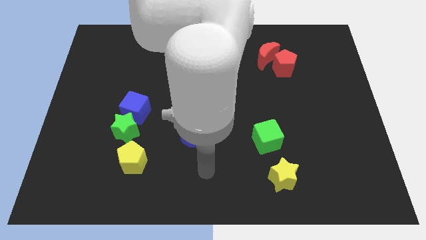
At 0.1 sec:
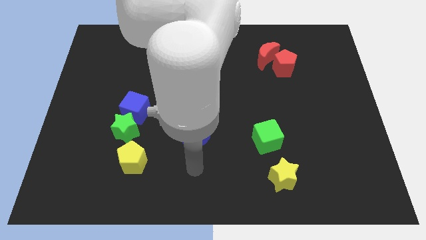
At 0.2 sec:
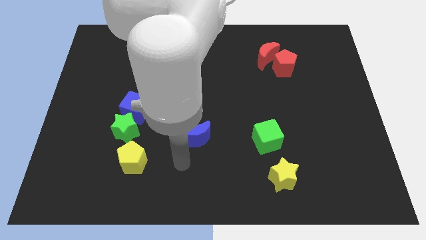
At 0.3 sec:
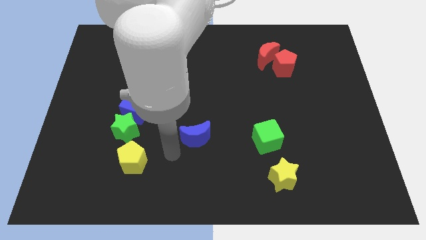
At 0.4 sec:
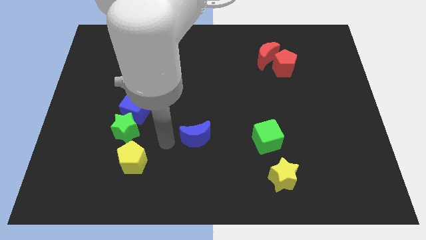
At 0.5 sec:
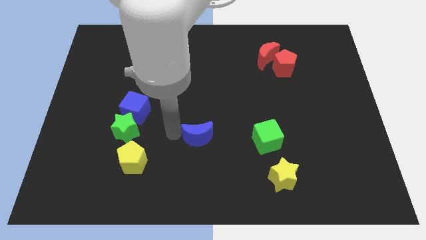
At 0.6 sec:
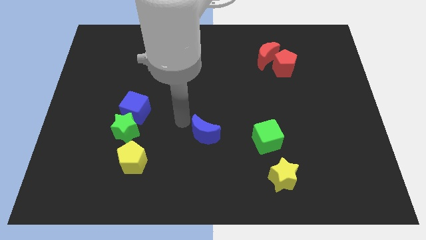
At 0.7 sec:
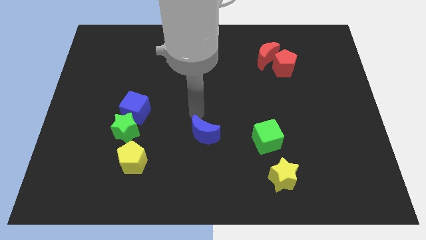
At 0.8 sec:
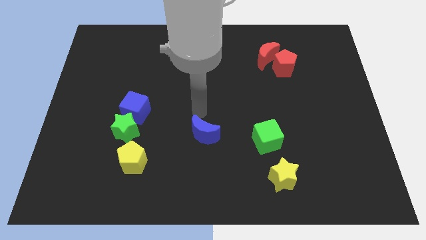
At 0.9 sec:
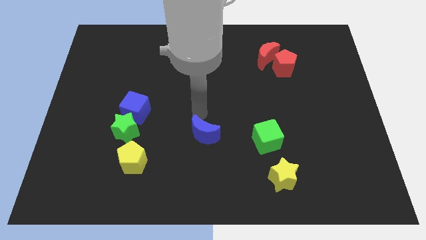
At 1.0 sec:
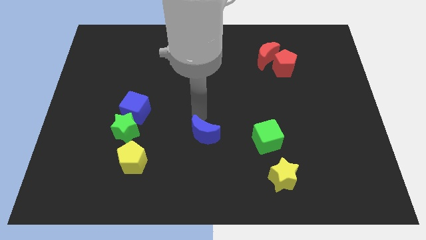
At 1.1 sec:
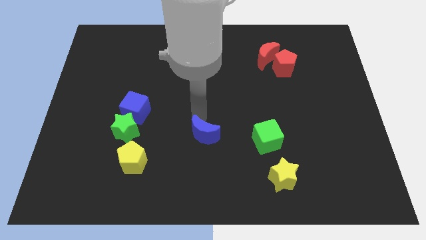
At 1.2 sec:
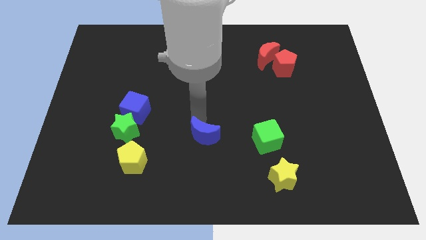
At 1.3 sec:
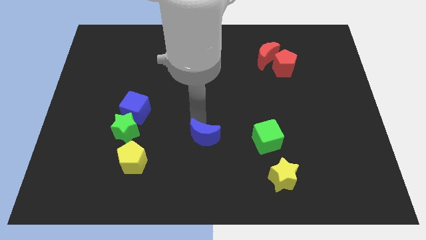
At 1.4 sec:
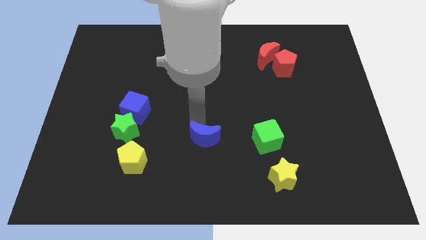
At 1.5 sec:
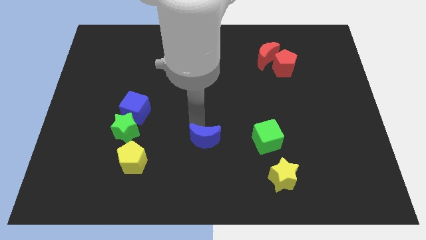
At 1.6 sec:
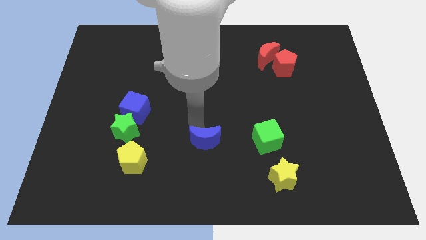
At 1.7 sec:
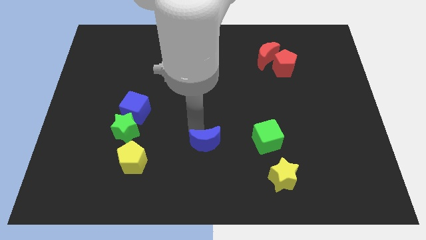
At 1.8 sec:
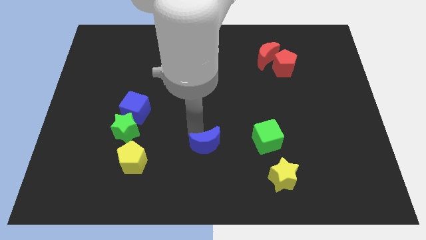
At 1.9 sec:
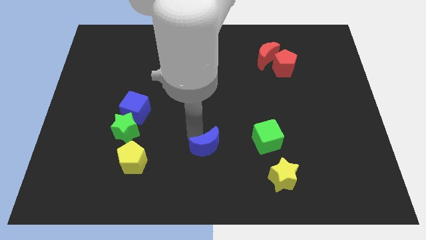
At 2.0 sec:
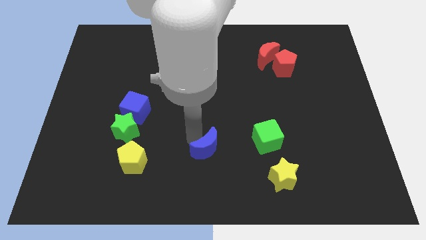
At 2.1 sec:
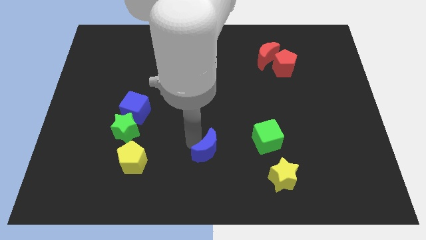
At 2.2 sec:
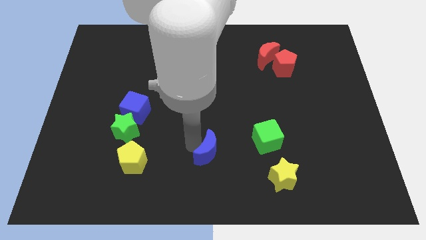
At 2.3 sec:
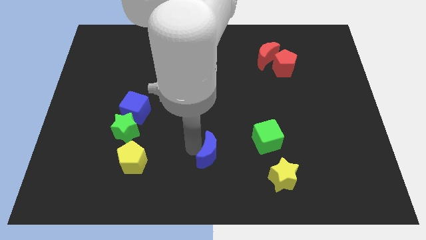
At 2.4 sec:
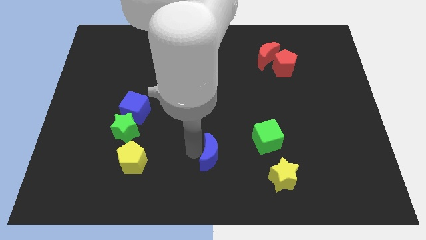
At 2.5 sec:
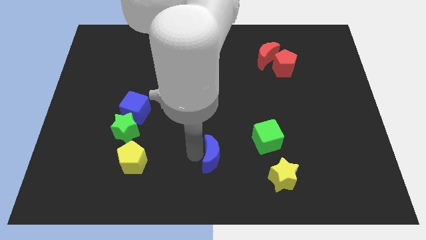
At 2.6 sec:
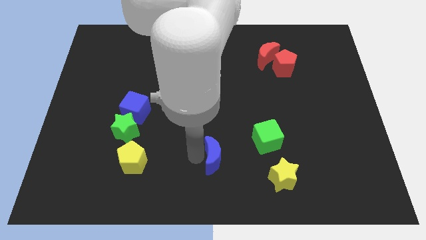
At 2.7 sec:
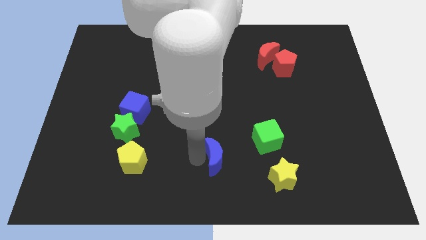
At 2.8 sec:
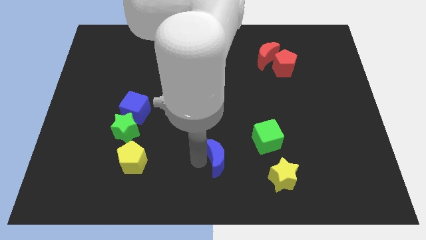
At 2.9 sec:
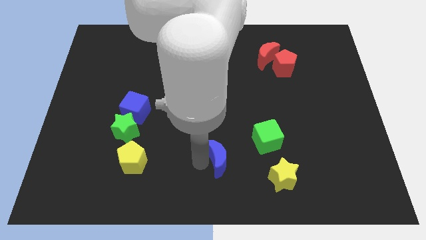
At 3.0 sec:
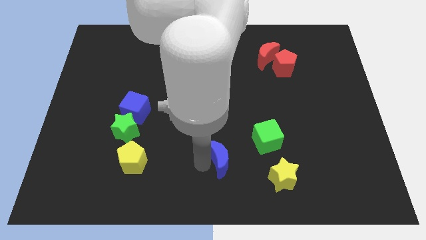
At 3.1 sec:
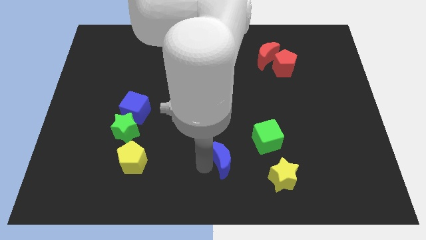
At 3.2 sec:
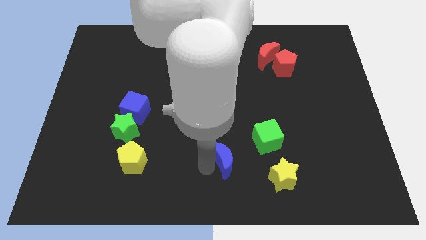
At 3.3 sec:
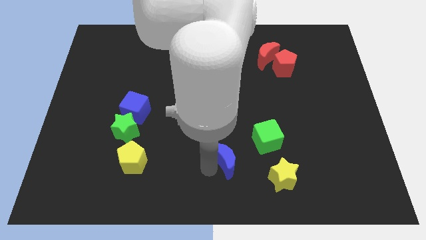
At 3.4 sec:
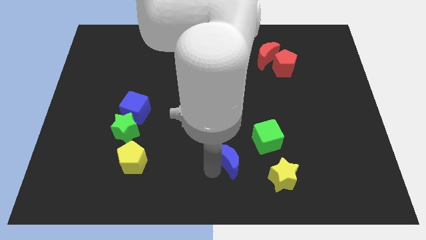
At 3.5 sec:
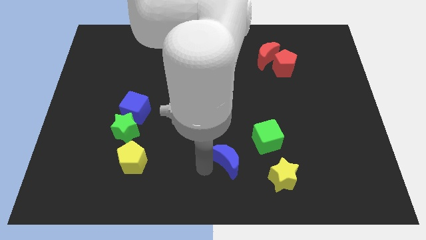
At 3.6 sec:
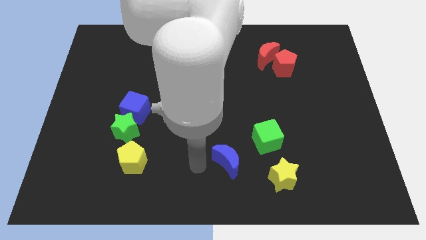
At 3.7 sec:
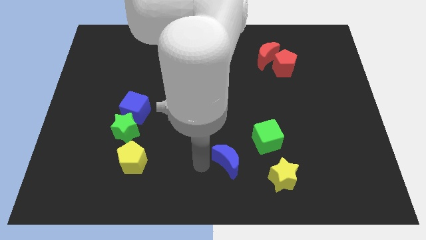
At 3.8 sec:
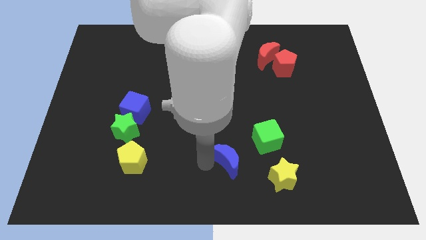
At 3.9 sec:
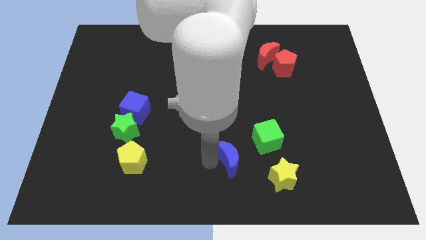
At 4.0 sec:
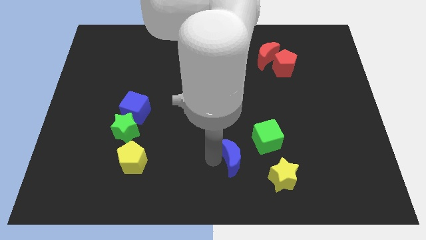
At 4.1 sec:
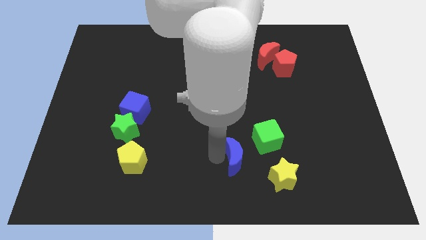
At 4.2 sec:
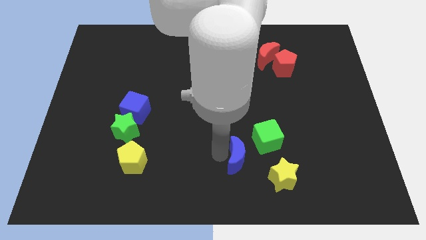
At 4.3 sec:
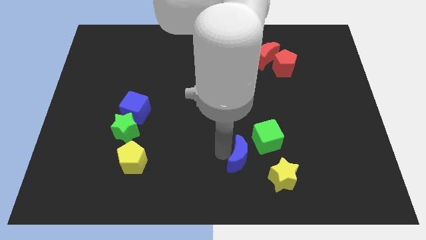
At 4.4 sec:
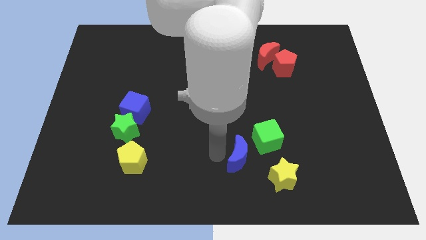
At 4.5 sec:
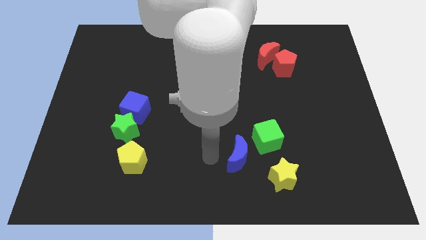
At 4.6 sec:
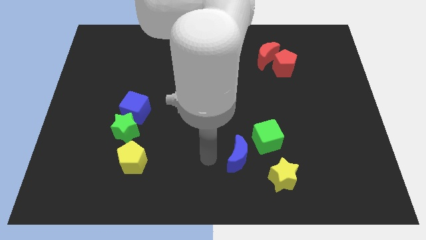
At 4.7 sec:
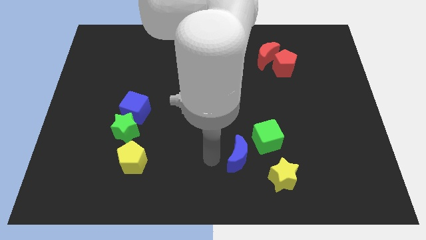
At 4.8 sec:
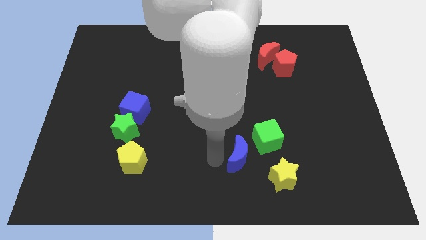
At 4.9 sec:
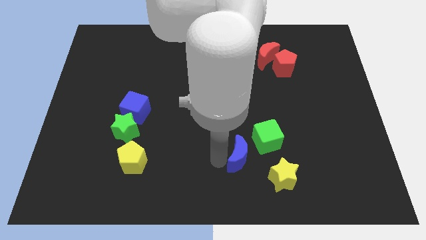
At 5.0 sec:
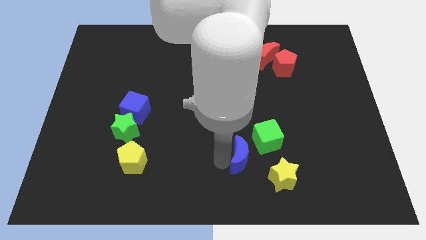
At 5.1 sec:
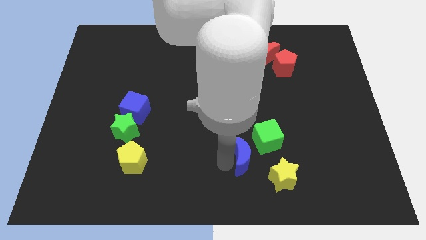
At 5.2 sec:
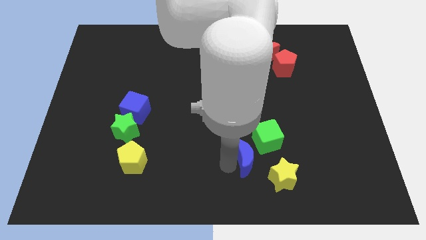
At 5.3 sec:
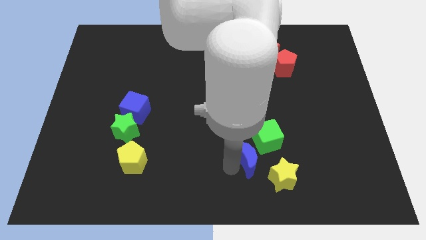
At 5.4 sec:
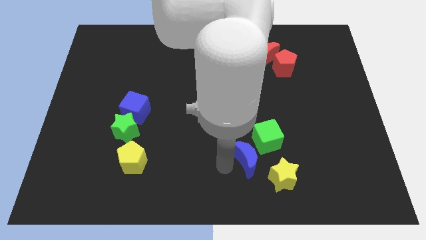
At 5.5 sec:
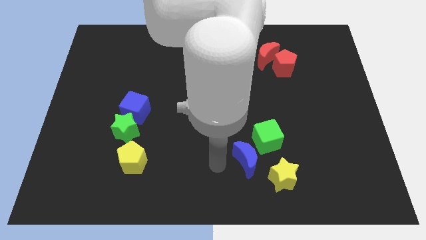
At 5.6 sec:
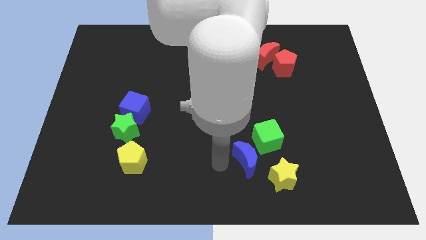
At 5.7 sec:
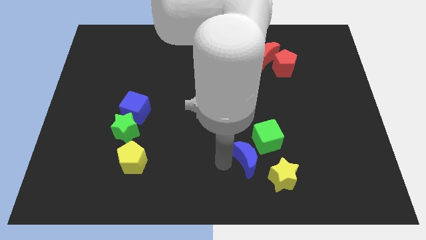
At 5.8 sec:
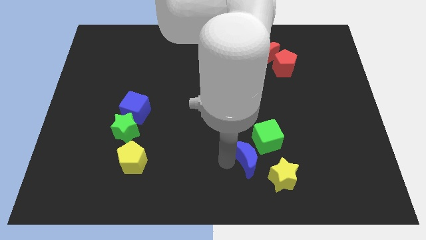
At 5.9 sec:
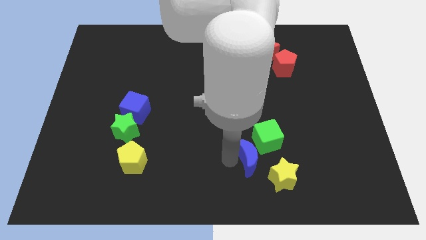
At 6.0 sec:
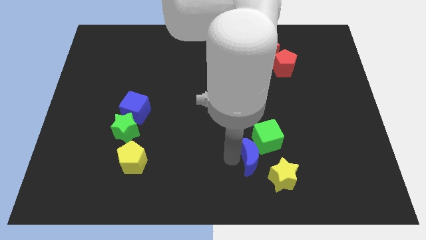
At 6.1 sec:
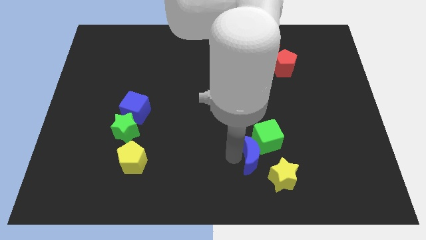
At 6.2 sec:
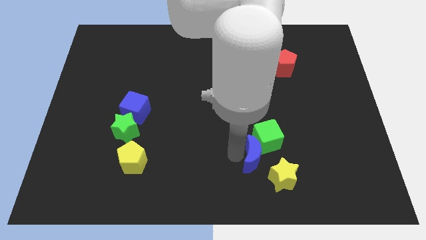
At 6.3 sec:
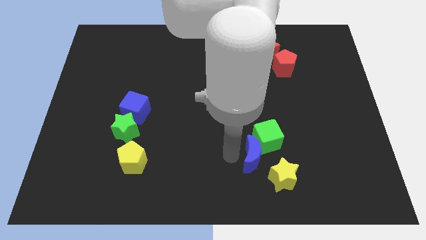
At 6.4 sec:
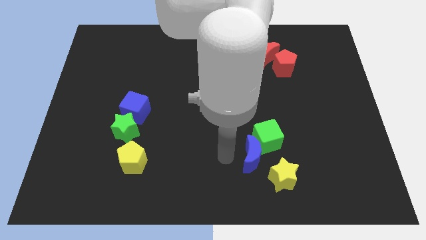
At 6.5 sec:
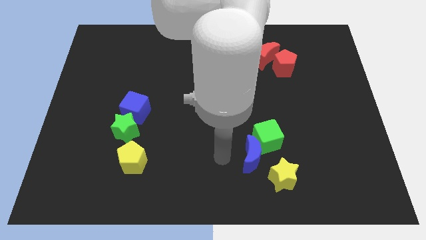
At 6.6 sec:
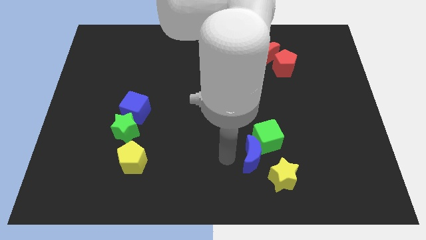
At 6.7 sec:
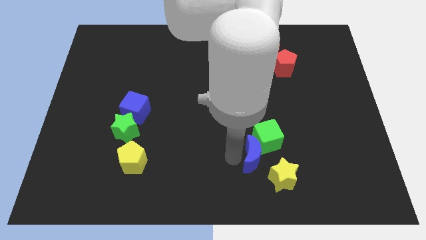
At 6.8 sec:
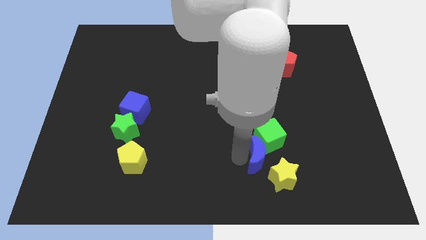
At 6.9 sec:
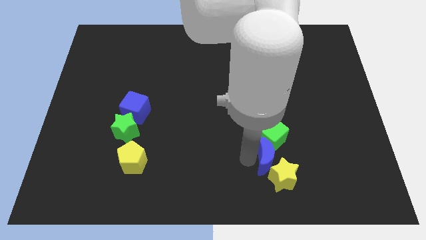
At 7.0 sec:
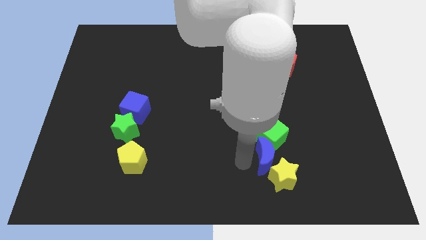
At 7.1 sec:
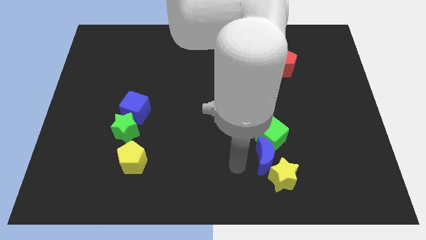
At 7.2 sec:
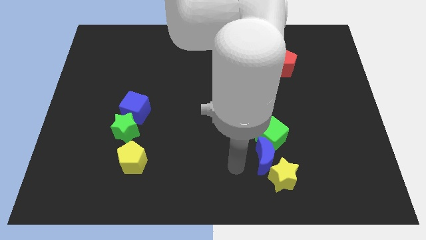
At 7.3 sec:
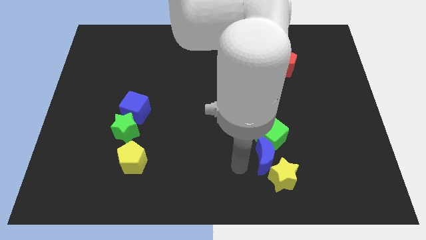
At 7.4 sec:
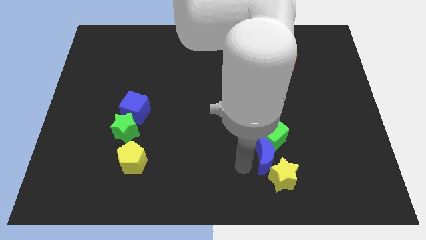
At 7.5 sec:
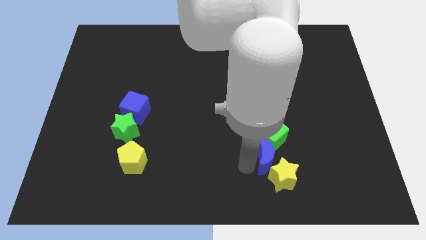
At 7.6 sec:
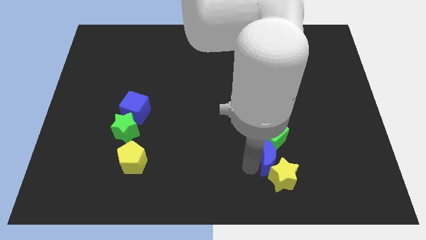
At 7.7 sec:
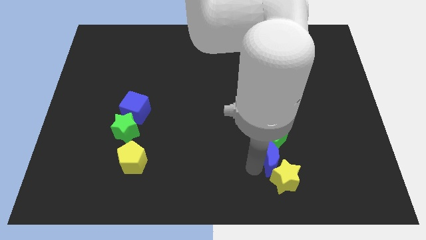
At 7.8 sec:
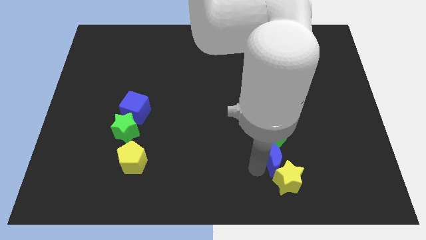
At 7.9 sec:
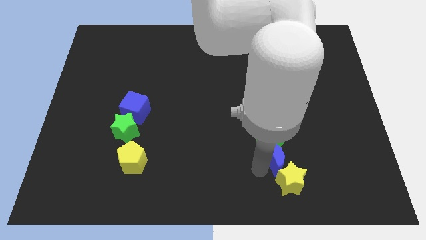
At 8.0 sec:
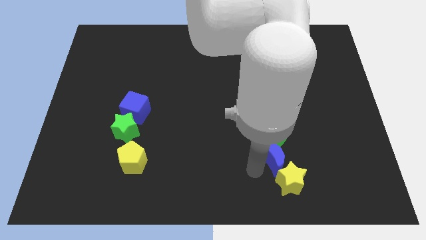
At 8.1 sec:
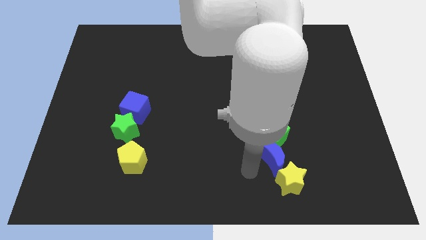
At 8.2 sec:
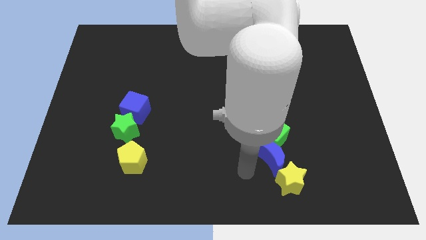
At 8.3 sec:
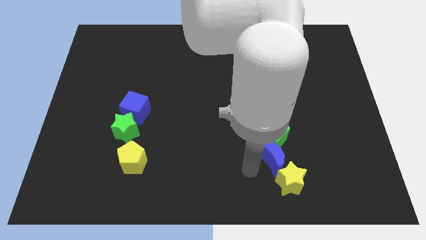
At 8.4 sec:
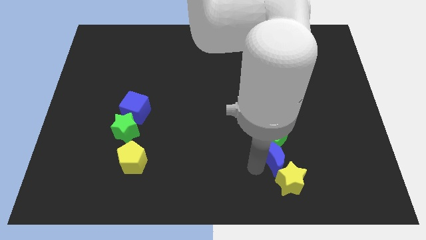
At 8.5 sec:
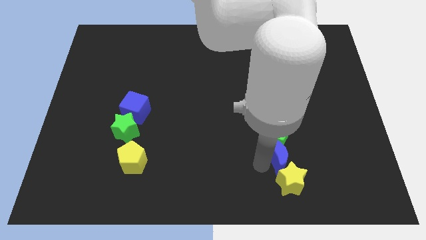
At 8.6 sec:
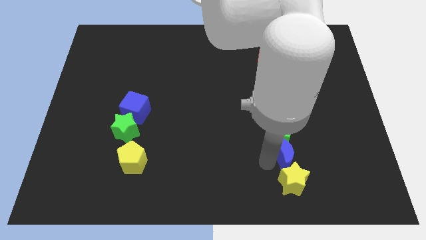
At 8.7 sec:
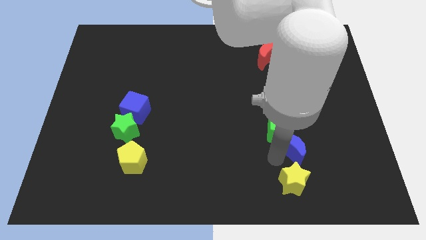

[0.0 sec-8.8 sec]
slide the blue moon right
